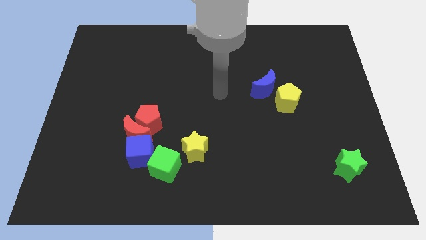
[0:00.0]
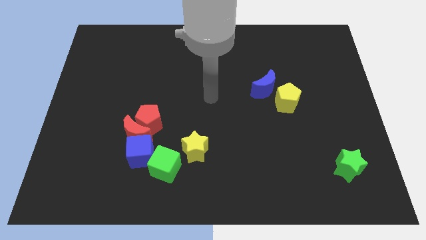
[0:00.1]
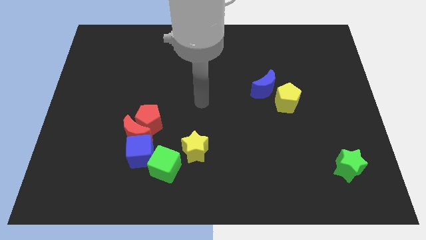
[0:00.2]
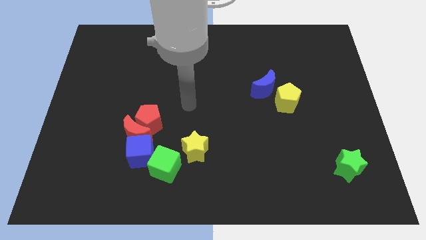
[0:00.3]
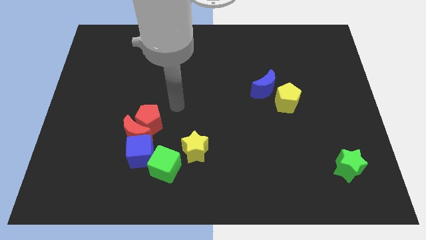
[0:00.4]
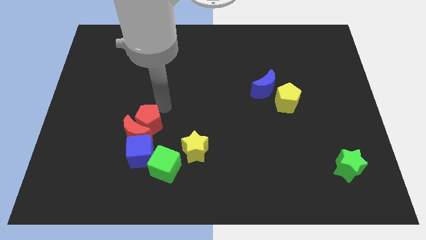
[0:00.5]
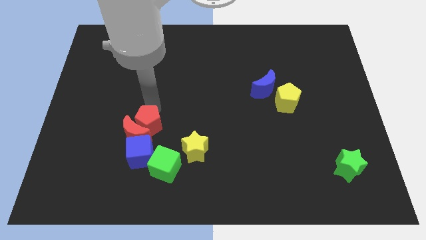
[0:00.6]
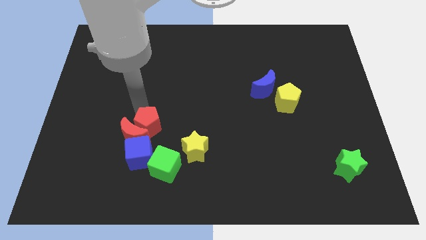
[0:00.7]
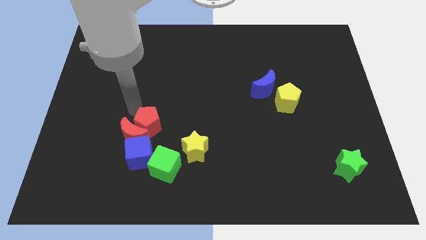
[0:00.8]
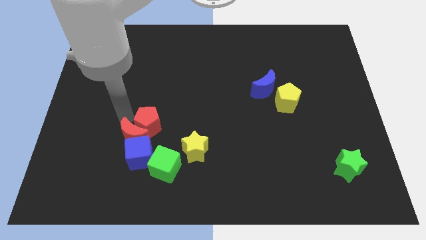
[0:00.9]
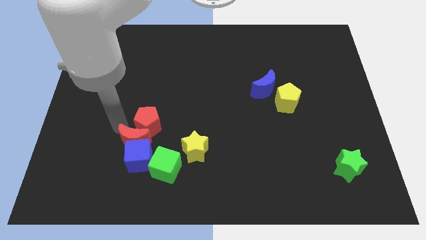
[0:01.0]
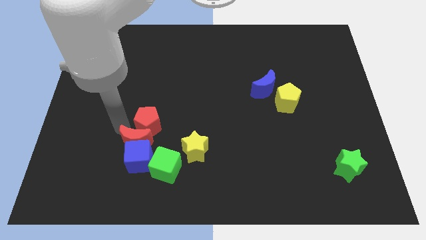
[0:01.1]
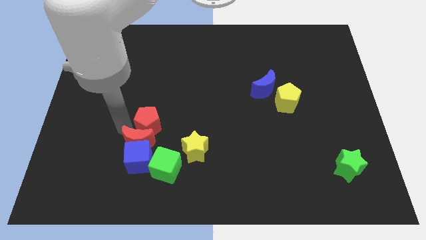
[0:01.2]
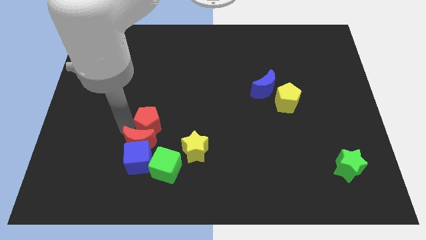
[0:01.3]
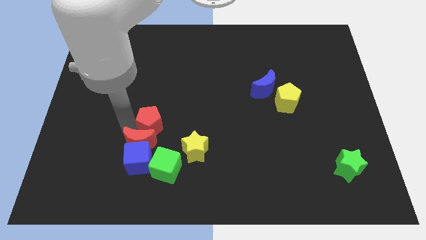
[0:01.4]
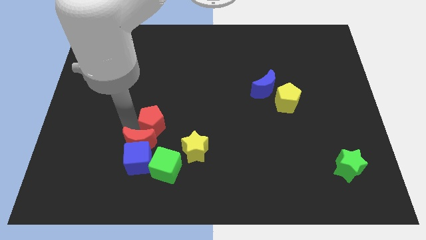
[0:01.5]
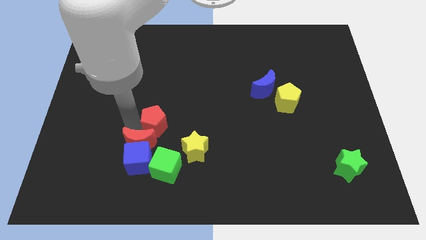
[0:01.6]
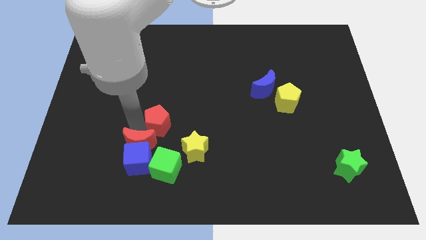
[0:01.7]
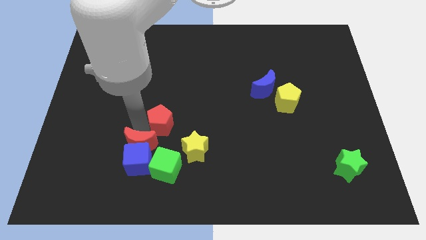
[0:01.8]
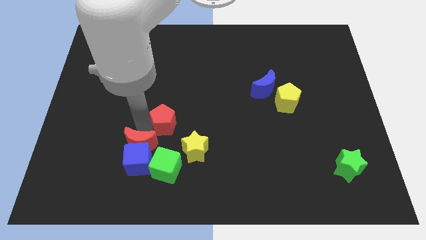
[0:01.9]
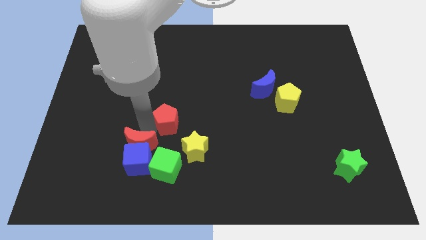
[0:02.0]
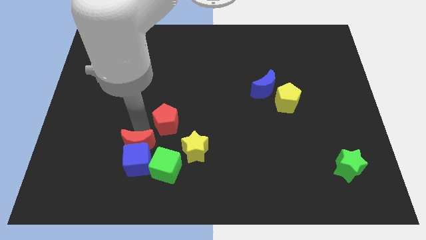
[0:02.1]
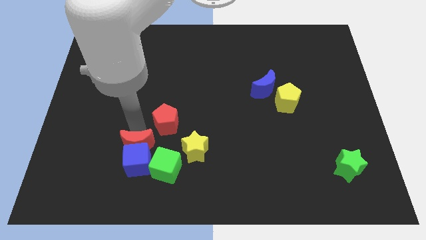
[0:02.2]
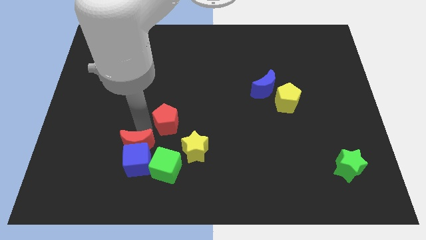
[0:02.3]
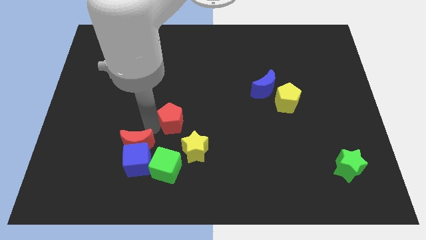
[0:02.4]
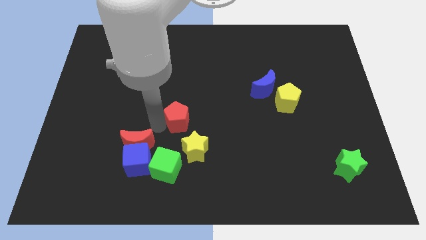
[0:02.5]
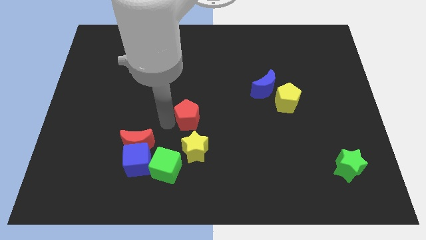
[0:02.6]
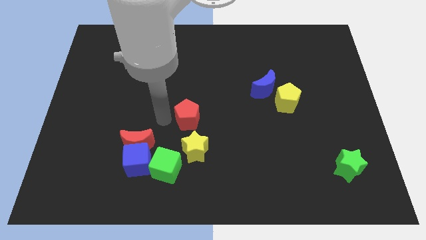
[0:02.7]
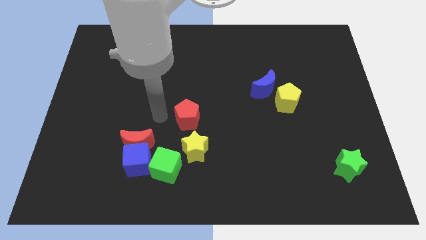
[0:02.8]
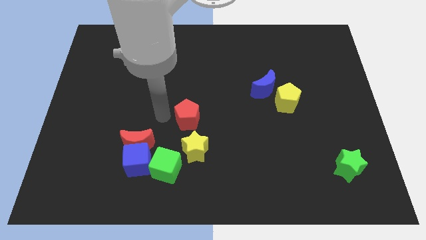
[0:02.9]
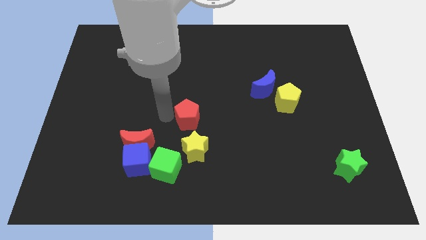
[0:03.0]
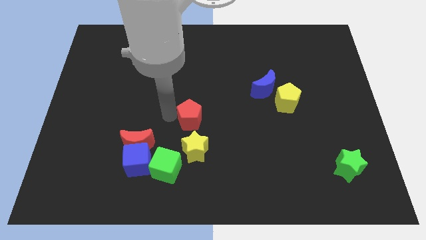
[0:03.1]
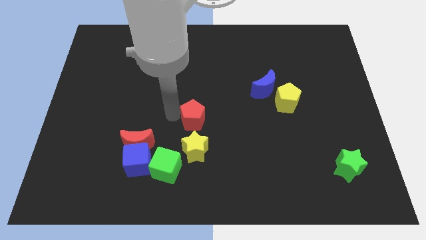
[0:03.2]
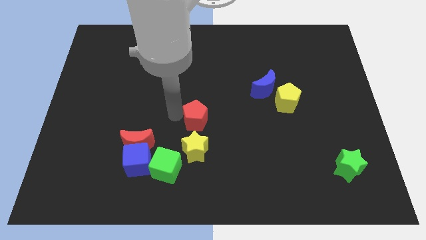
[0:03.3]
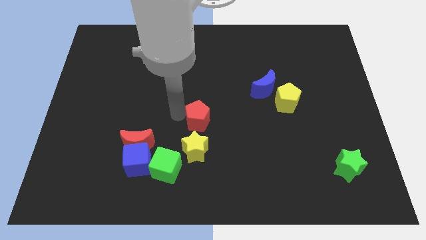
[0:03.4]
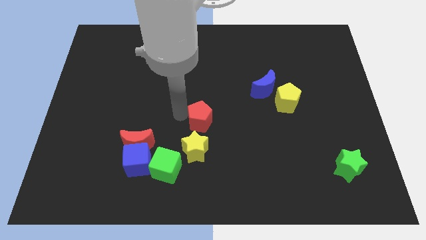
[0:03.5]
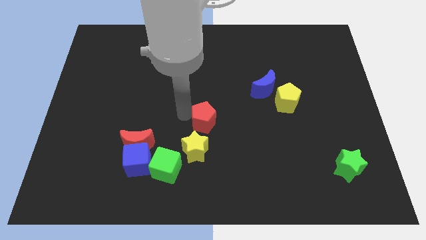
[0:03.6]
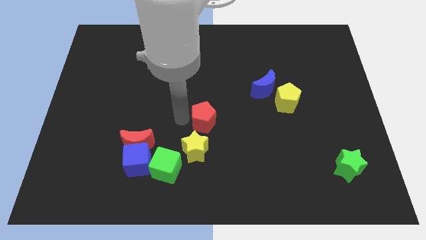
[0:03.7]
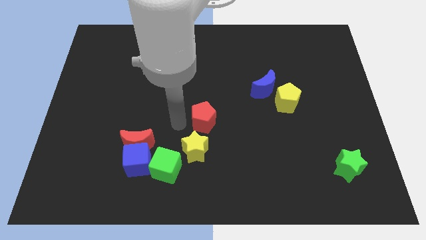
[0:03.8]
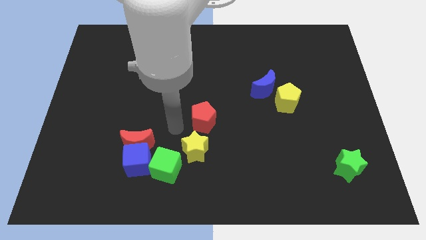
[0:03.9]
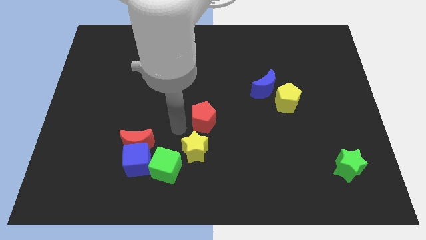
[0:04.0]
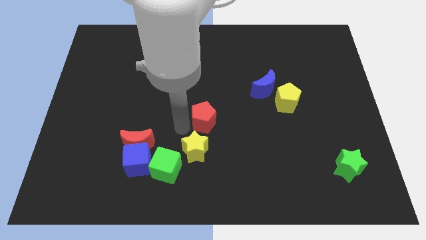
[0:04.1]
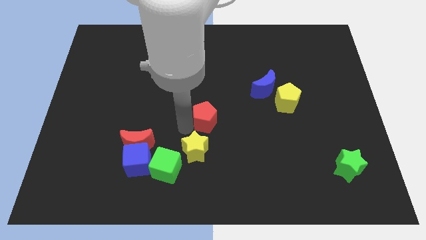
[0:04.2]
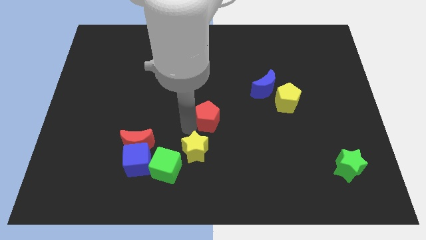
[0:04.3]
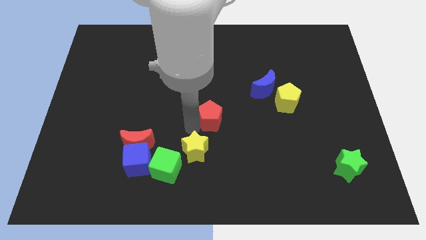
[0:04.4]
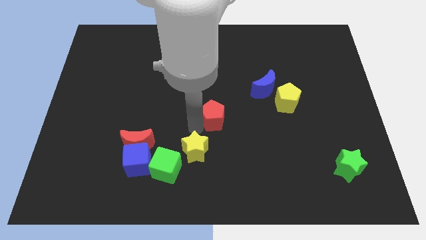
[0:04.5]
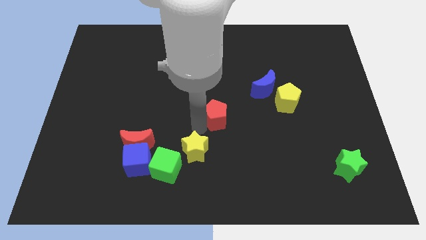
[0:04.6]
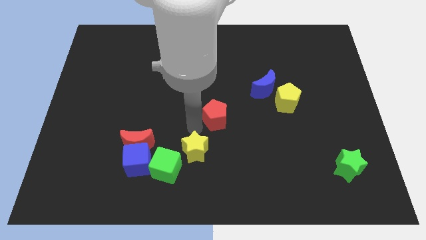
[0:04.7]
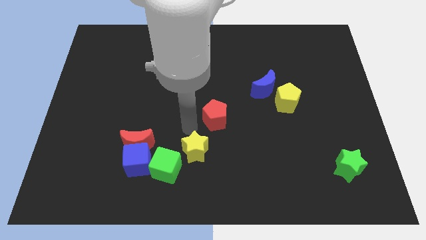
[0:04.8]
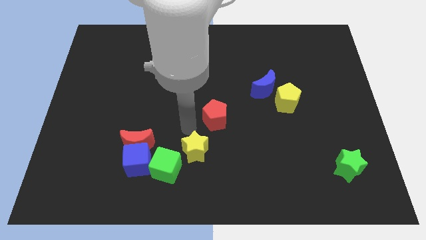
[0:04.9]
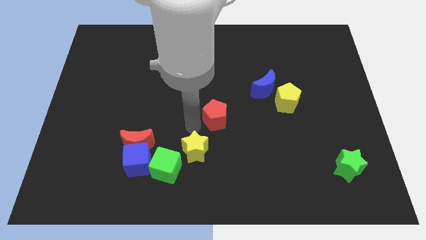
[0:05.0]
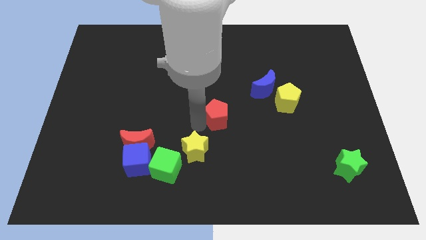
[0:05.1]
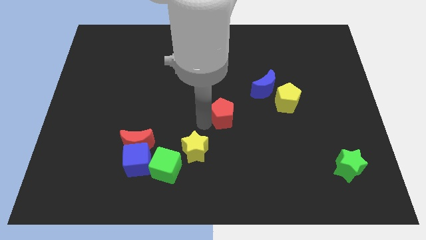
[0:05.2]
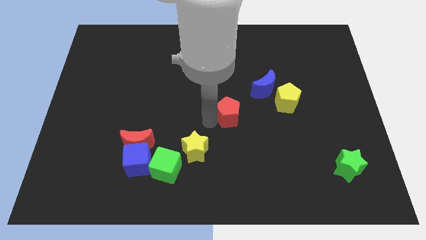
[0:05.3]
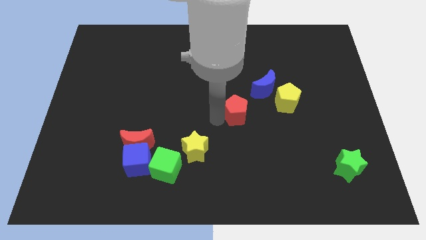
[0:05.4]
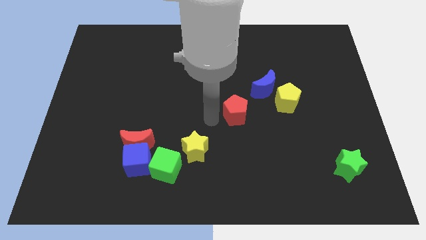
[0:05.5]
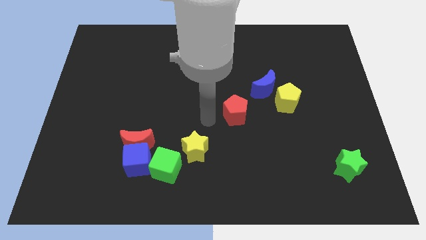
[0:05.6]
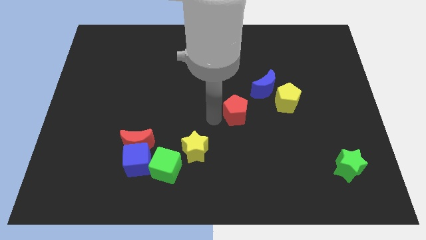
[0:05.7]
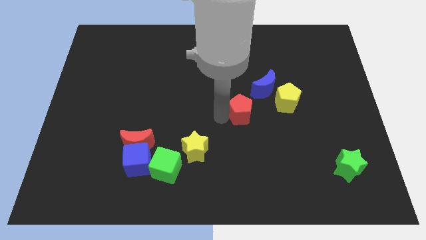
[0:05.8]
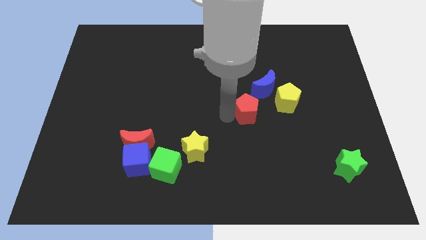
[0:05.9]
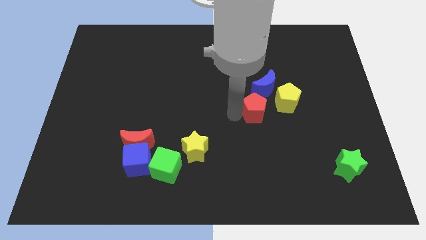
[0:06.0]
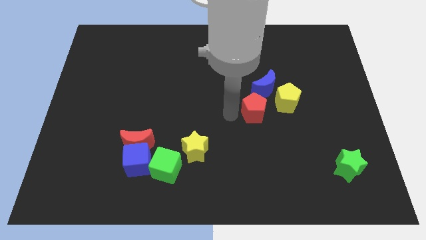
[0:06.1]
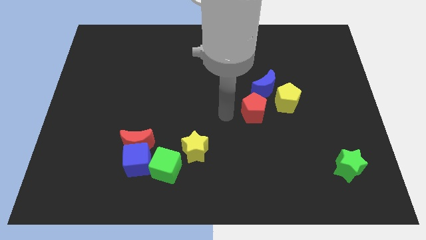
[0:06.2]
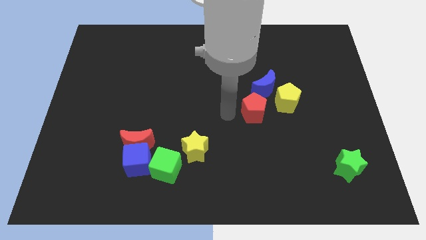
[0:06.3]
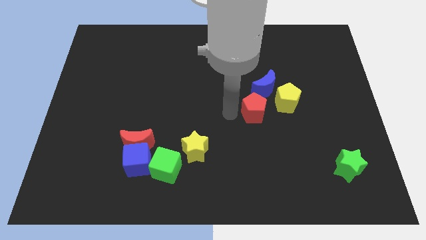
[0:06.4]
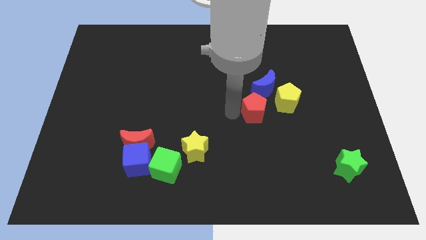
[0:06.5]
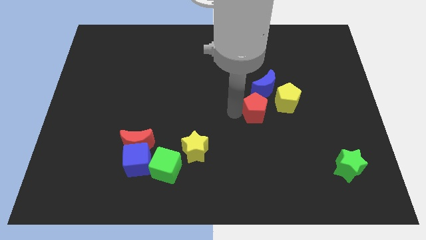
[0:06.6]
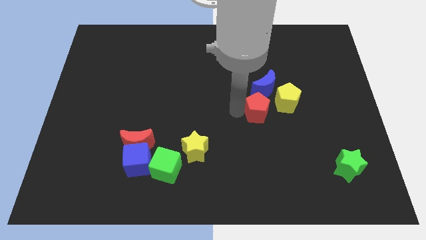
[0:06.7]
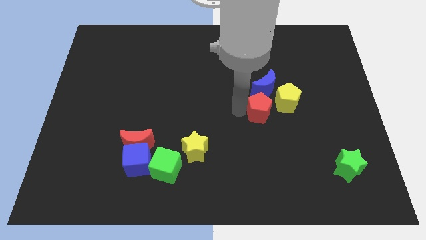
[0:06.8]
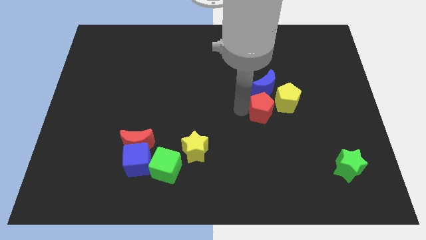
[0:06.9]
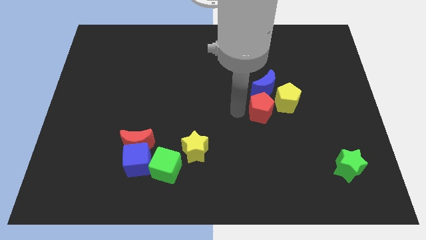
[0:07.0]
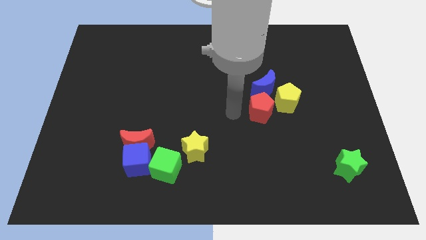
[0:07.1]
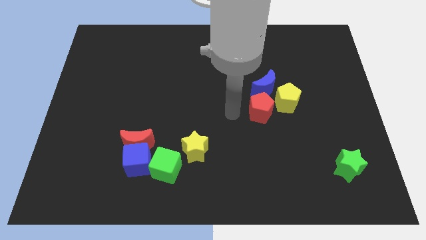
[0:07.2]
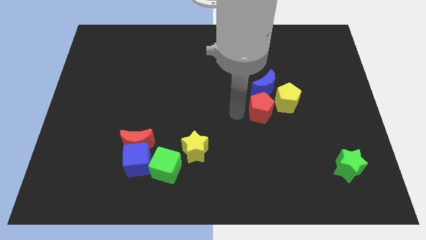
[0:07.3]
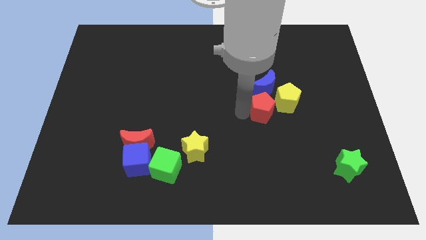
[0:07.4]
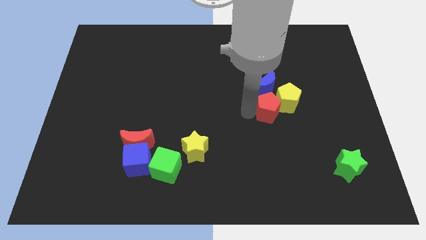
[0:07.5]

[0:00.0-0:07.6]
push the red pentagon close to the yellow pentagon
